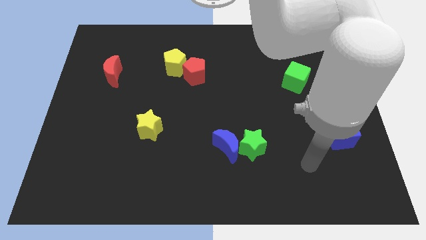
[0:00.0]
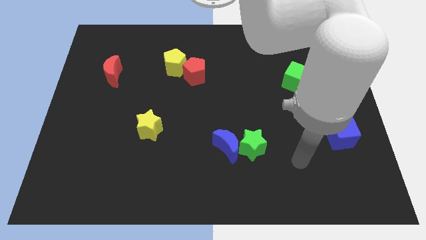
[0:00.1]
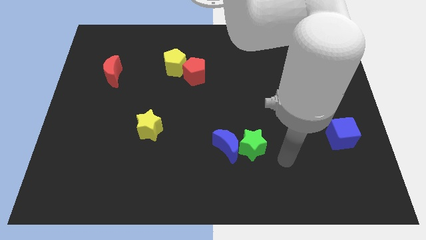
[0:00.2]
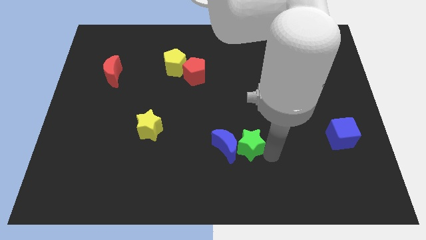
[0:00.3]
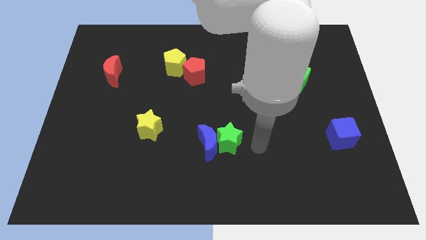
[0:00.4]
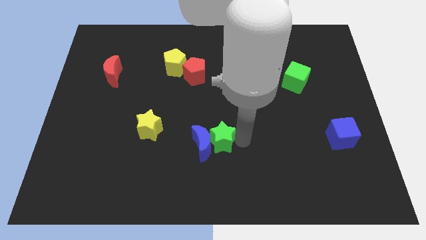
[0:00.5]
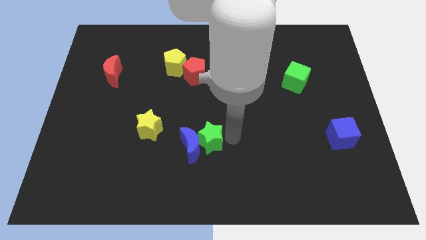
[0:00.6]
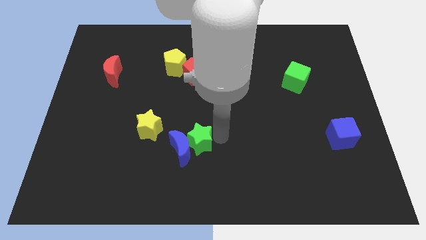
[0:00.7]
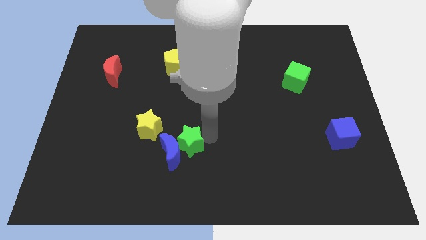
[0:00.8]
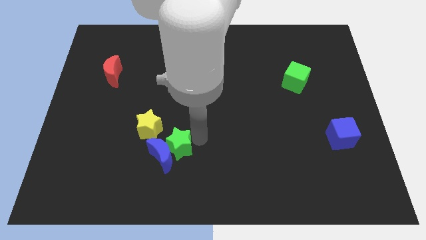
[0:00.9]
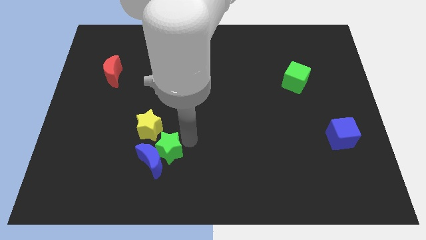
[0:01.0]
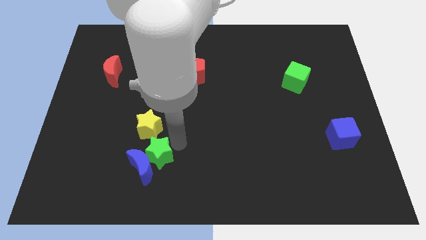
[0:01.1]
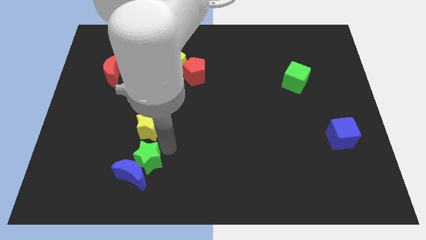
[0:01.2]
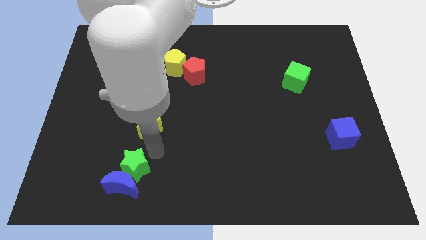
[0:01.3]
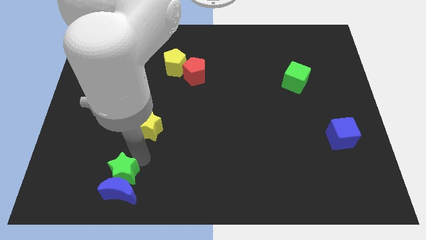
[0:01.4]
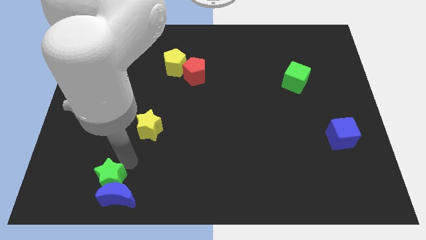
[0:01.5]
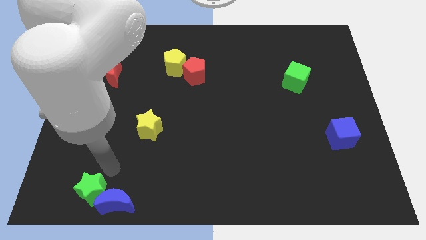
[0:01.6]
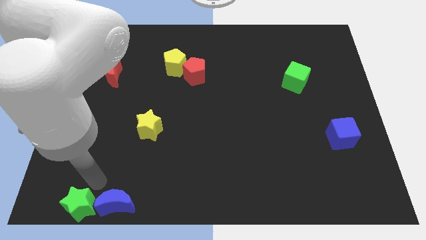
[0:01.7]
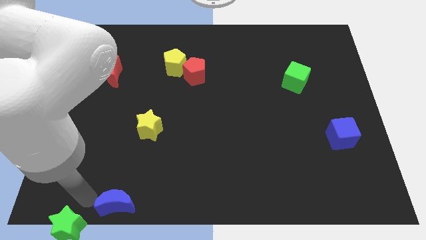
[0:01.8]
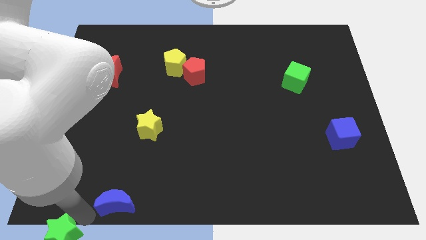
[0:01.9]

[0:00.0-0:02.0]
separate the blue moon from the green star

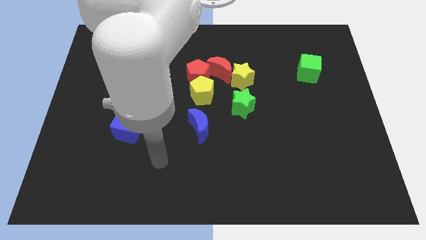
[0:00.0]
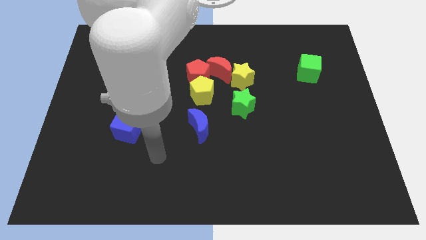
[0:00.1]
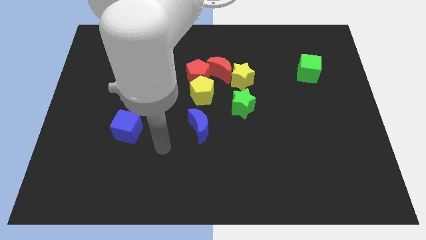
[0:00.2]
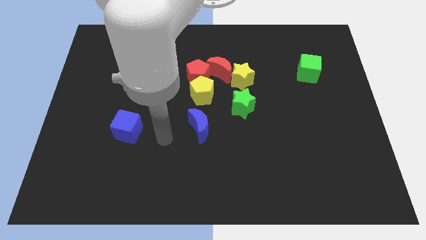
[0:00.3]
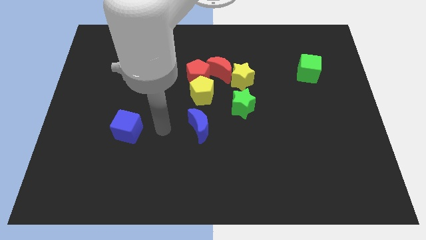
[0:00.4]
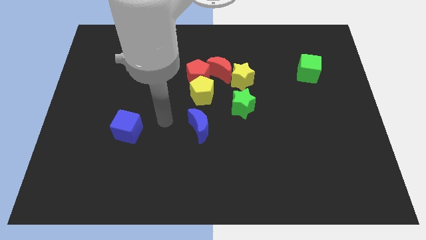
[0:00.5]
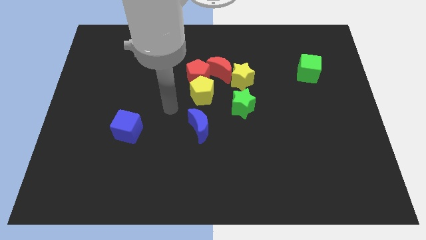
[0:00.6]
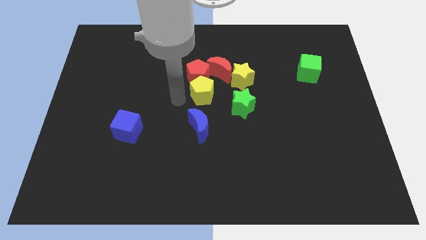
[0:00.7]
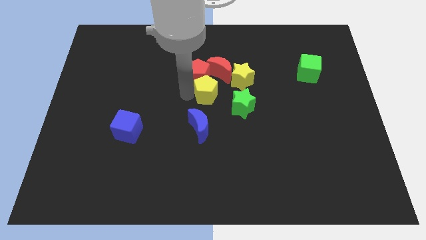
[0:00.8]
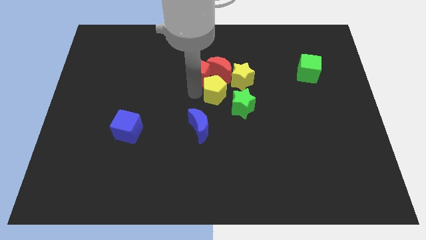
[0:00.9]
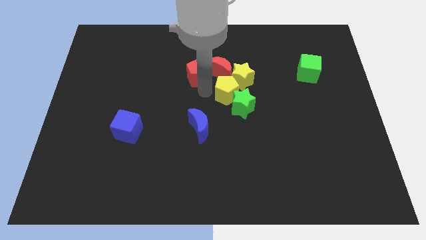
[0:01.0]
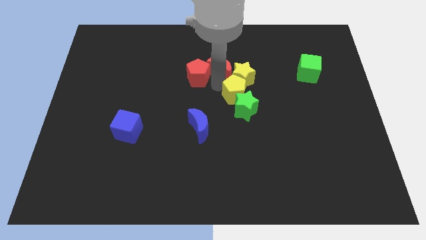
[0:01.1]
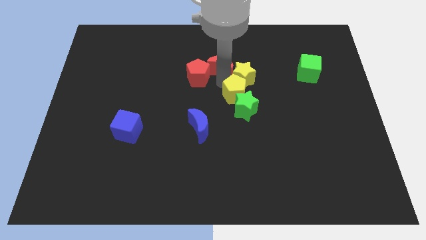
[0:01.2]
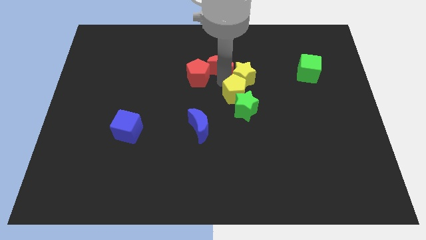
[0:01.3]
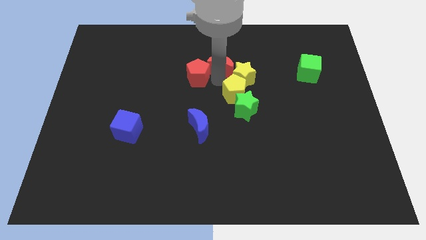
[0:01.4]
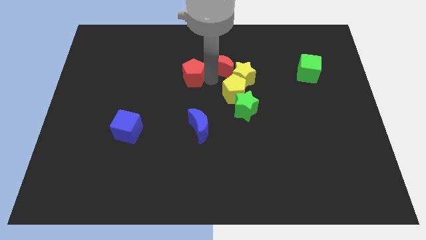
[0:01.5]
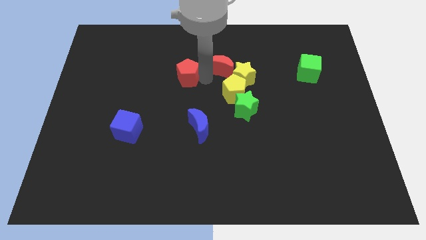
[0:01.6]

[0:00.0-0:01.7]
separate the red pentagon from the yellow pentagon and red moon

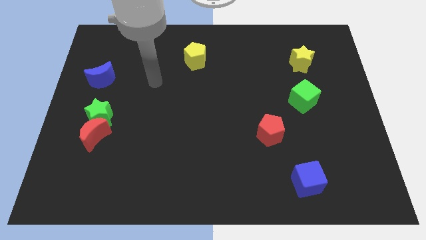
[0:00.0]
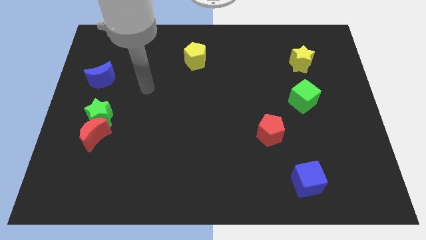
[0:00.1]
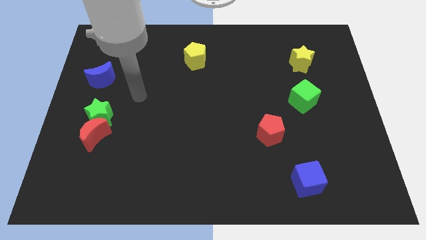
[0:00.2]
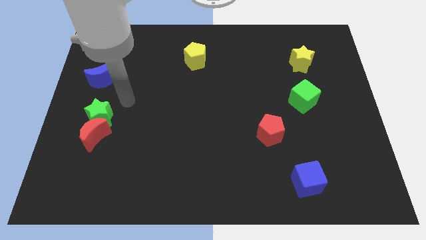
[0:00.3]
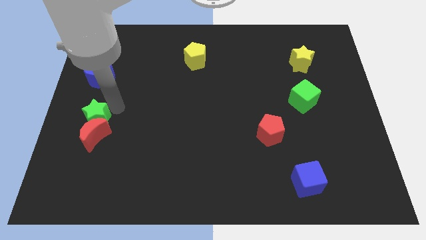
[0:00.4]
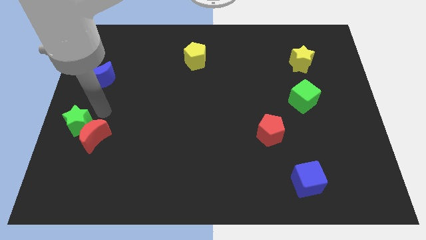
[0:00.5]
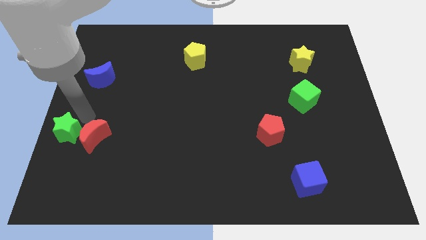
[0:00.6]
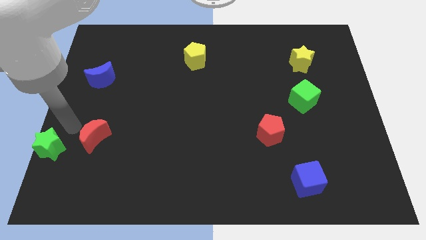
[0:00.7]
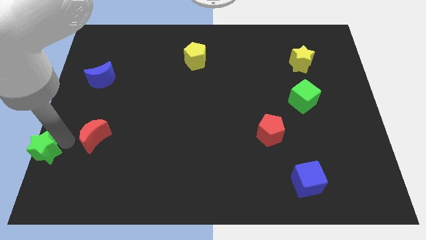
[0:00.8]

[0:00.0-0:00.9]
pull the red moon apart from the green star

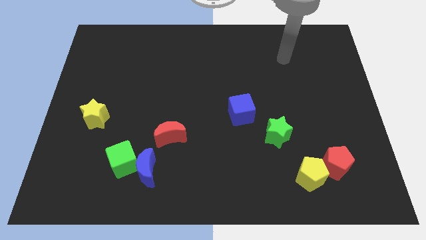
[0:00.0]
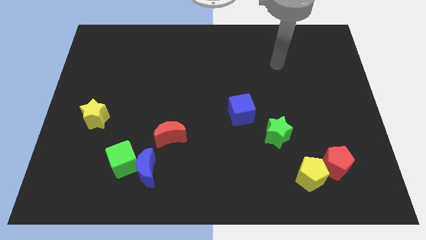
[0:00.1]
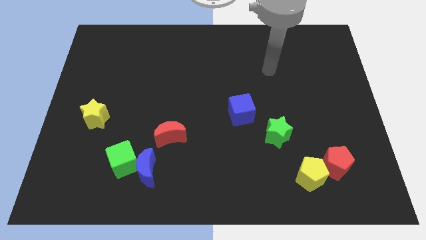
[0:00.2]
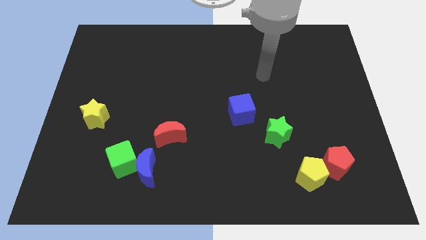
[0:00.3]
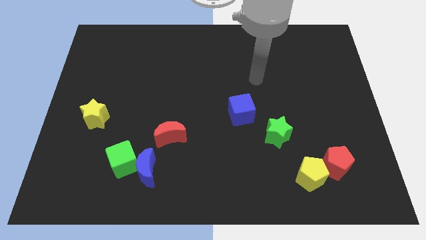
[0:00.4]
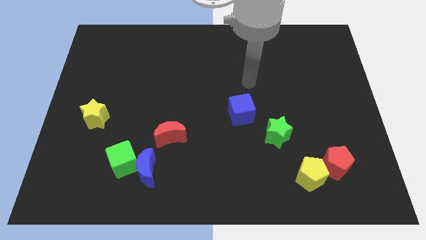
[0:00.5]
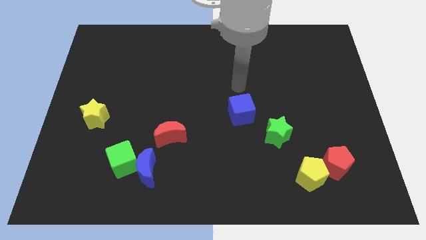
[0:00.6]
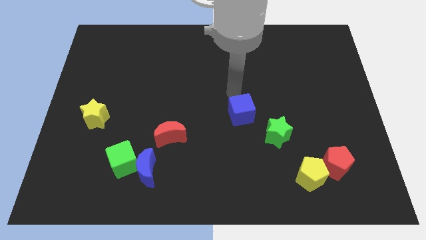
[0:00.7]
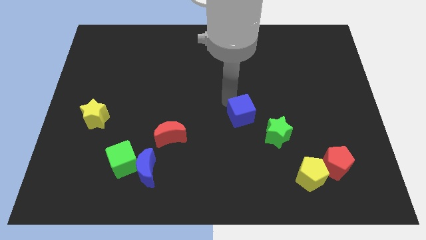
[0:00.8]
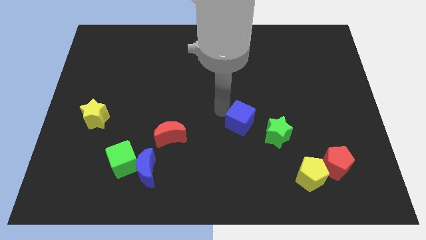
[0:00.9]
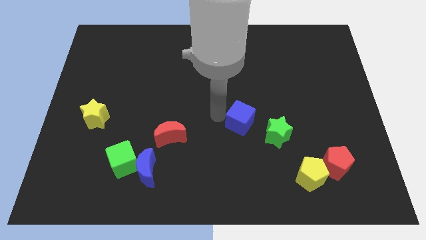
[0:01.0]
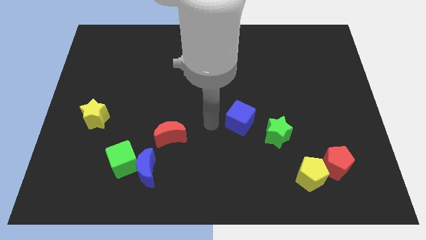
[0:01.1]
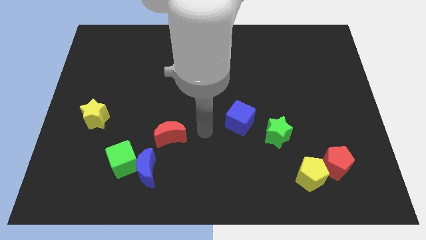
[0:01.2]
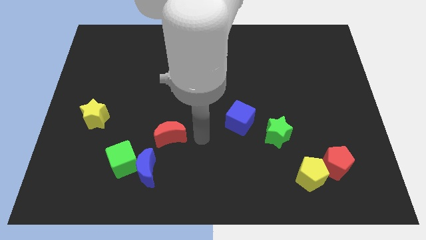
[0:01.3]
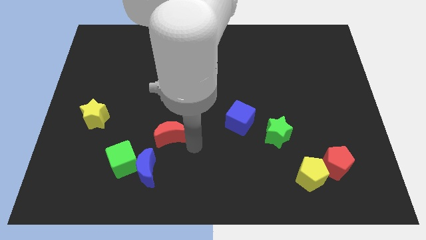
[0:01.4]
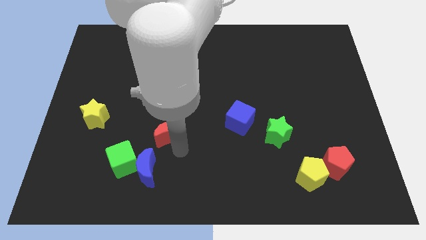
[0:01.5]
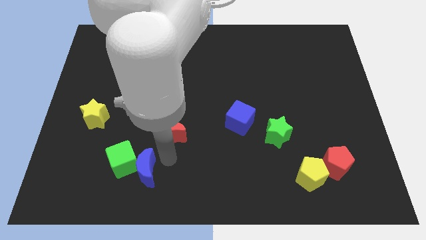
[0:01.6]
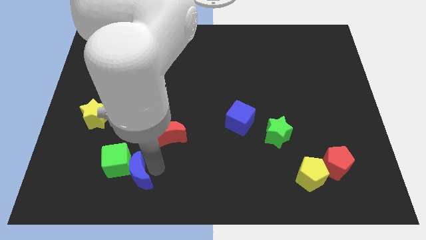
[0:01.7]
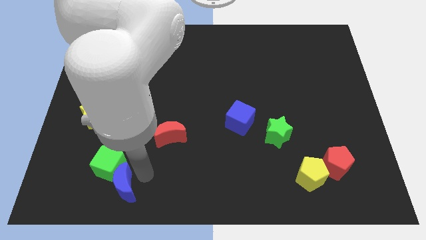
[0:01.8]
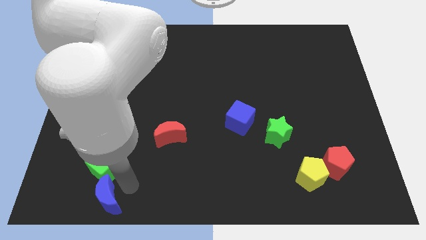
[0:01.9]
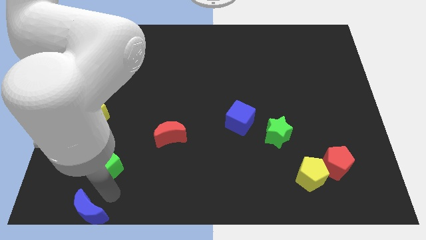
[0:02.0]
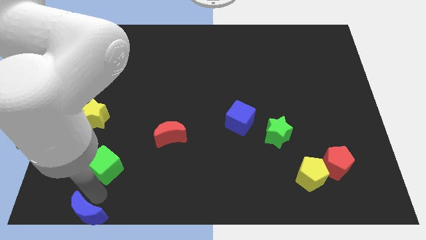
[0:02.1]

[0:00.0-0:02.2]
separate the green cube from the blue moon

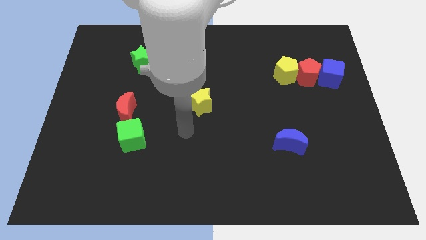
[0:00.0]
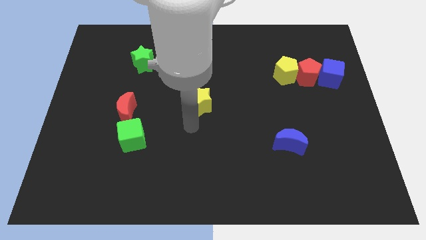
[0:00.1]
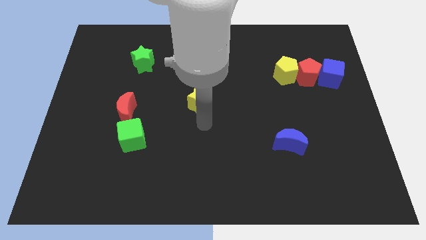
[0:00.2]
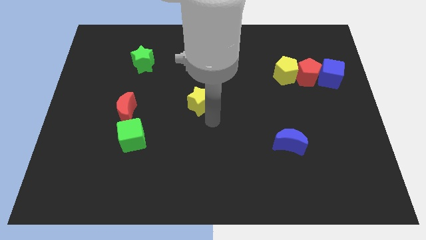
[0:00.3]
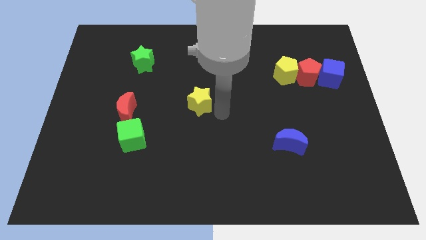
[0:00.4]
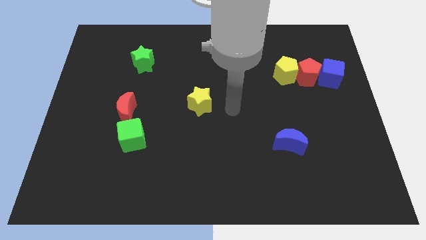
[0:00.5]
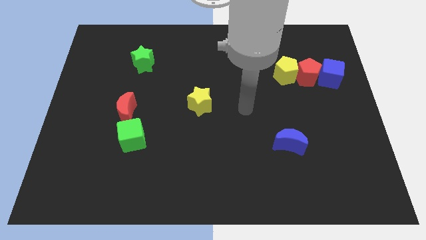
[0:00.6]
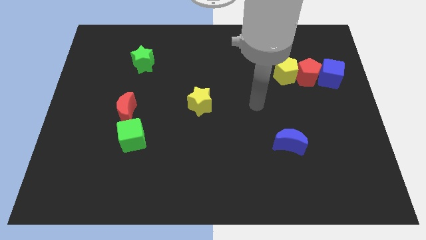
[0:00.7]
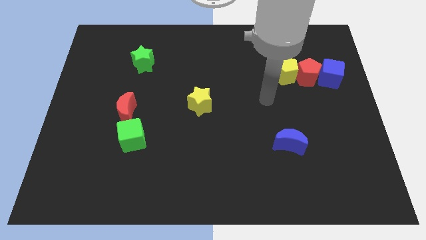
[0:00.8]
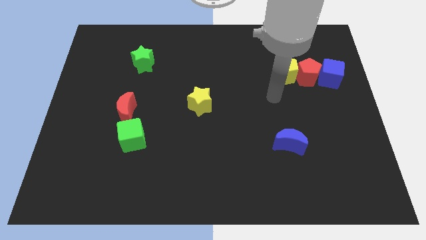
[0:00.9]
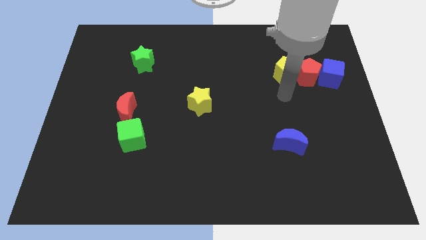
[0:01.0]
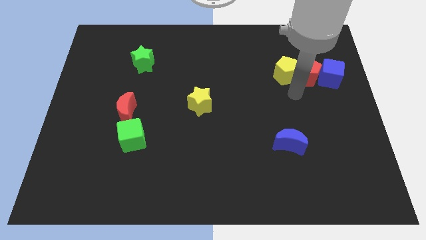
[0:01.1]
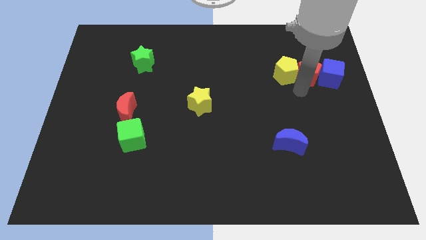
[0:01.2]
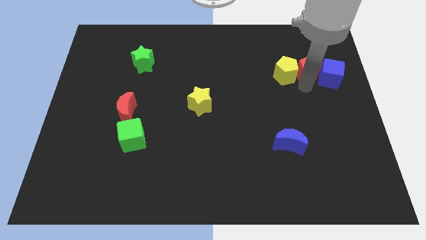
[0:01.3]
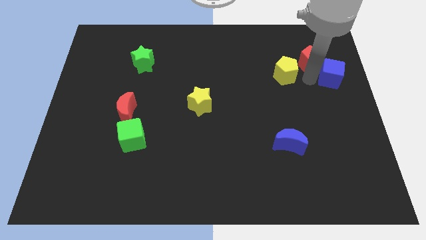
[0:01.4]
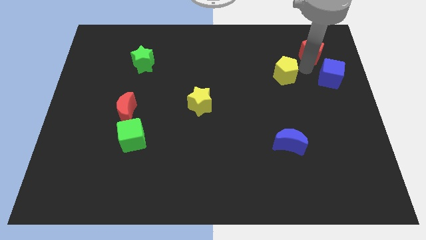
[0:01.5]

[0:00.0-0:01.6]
move the yellow pentagon away from the red pentagon

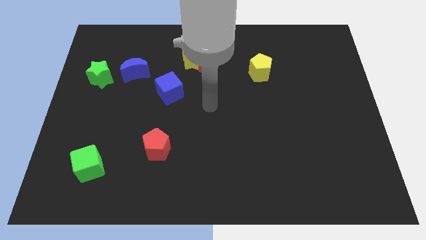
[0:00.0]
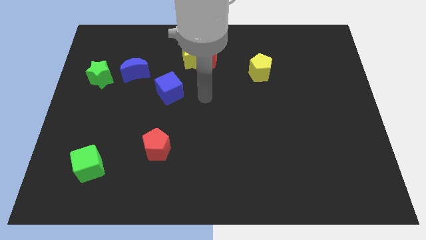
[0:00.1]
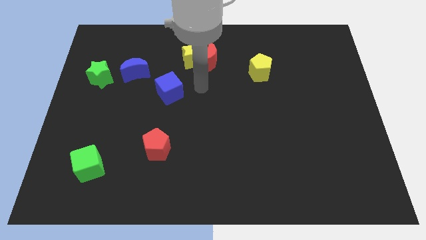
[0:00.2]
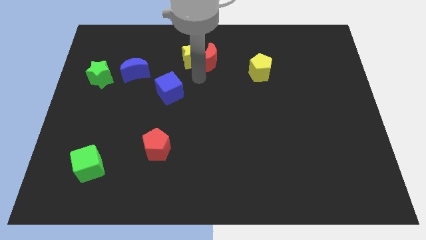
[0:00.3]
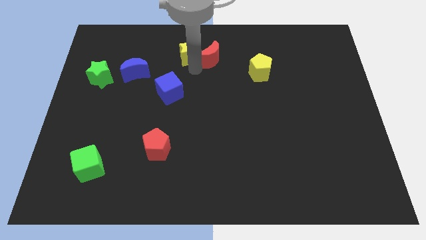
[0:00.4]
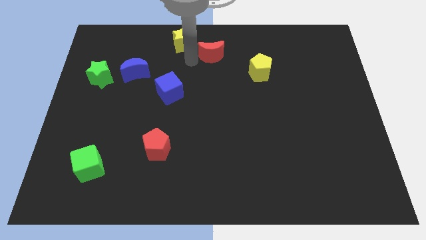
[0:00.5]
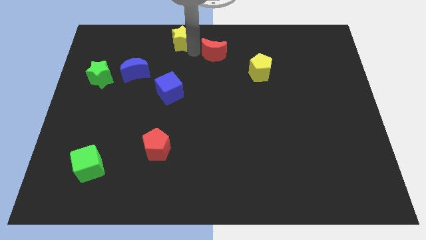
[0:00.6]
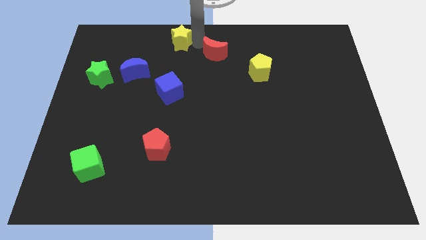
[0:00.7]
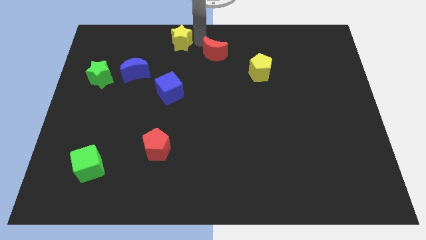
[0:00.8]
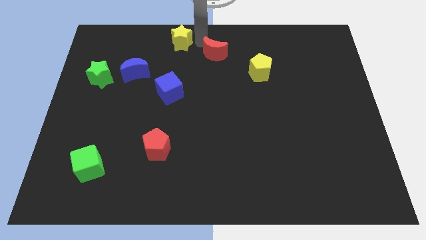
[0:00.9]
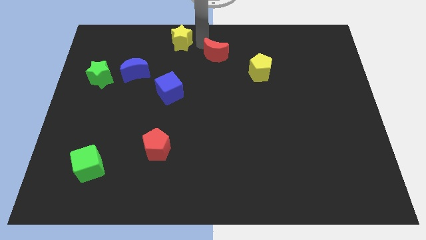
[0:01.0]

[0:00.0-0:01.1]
move the red moon away from the yellow star
